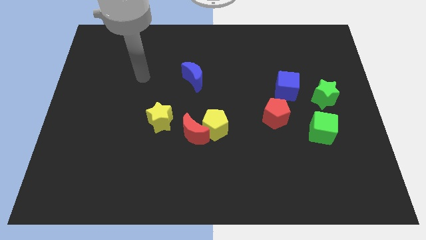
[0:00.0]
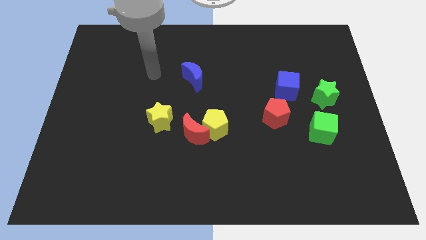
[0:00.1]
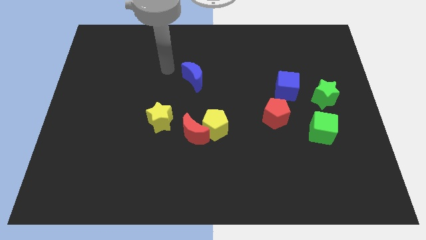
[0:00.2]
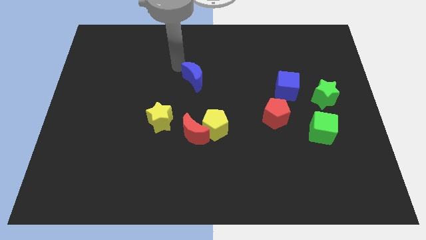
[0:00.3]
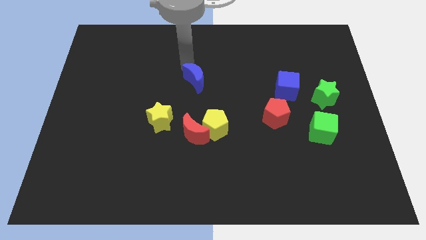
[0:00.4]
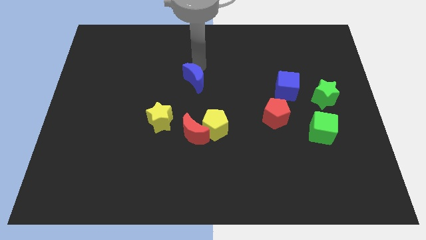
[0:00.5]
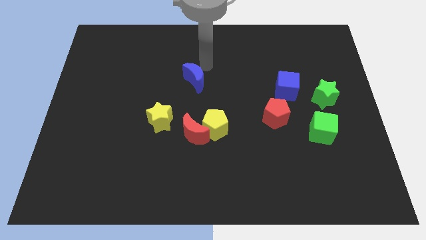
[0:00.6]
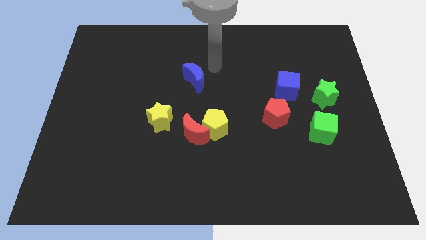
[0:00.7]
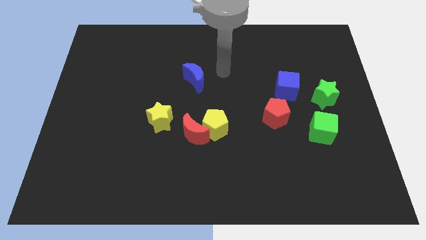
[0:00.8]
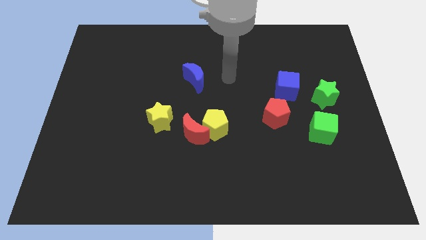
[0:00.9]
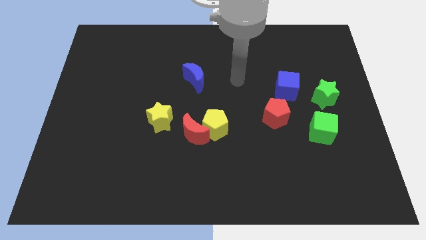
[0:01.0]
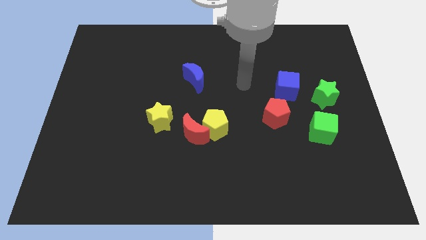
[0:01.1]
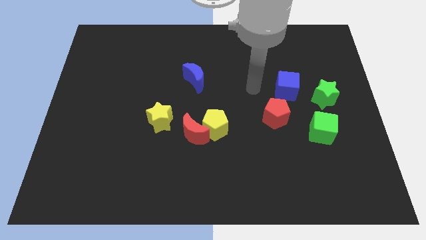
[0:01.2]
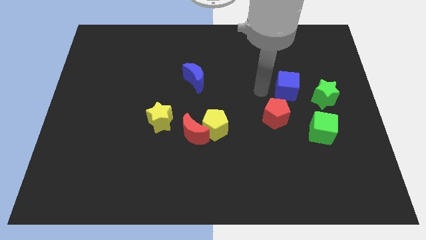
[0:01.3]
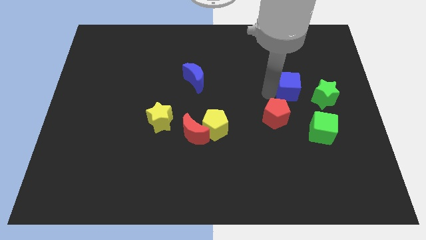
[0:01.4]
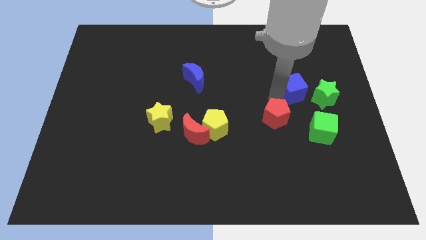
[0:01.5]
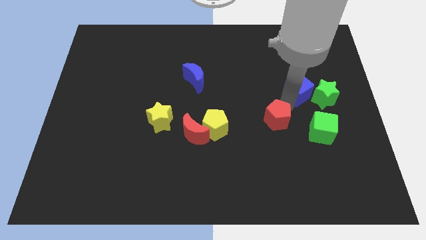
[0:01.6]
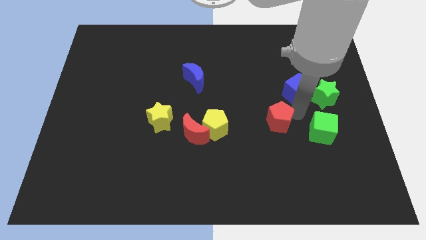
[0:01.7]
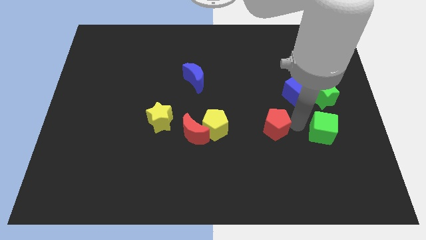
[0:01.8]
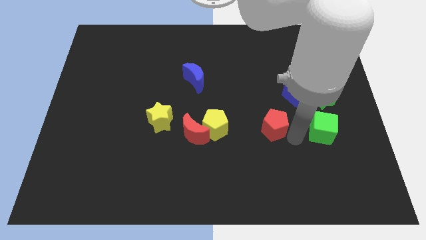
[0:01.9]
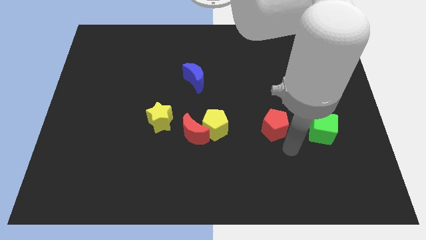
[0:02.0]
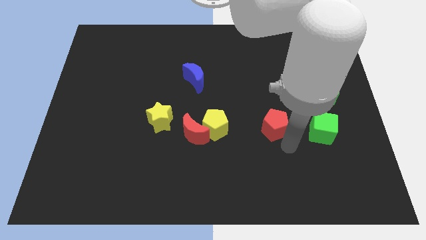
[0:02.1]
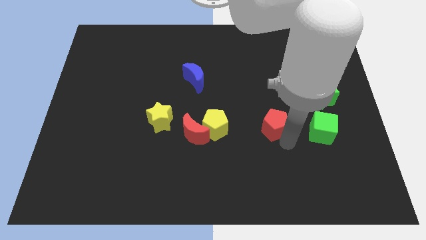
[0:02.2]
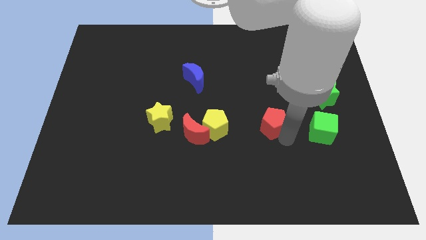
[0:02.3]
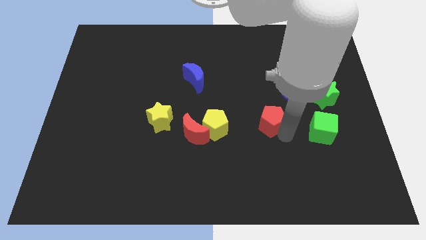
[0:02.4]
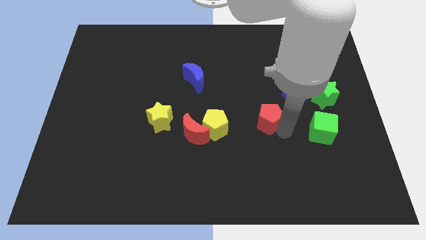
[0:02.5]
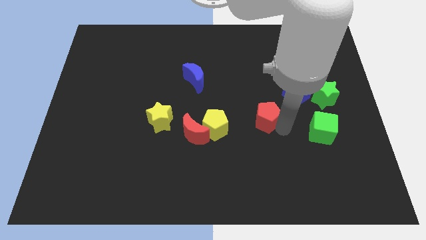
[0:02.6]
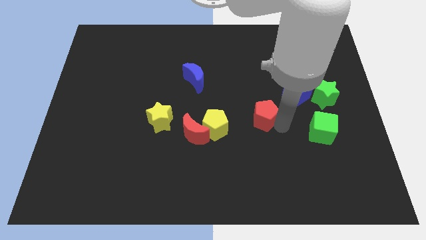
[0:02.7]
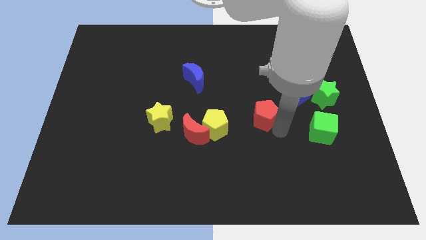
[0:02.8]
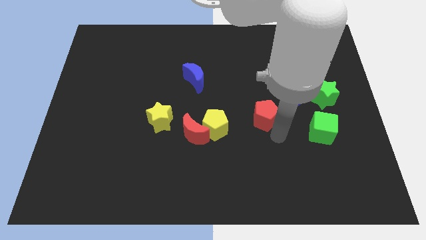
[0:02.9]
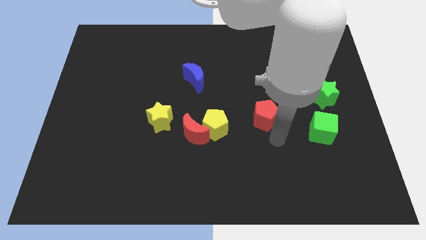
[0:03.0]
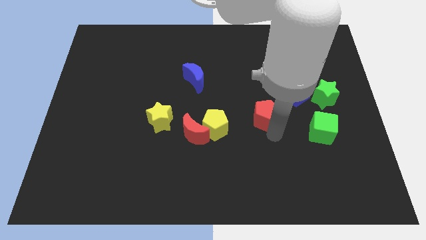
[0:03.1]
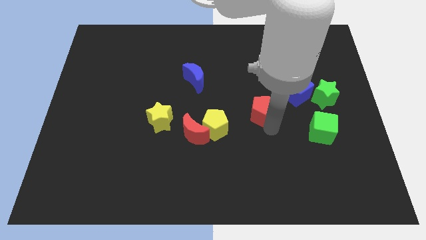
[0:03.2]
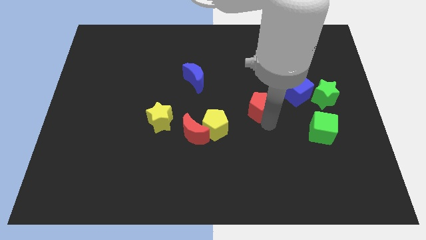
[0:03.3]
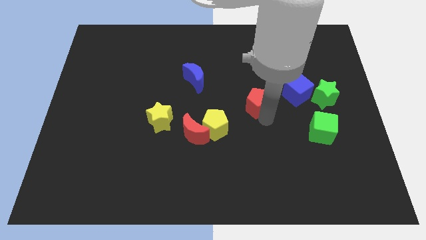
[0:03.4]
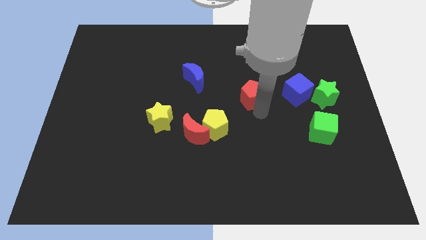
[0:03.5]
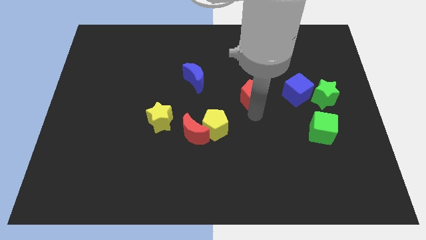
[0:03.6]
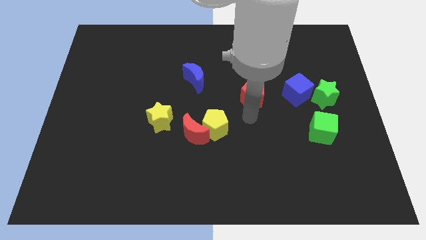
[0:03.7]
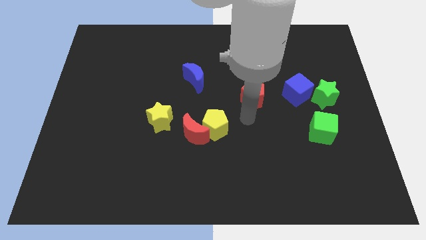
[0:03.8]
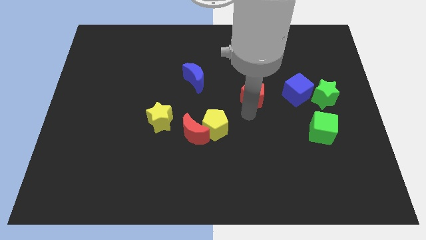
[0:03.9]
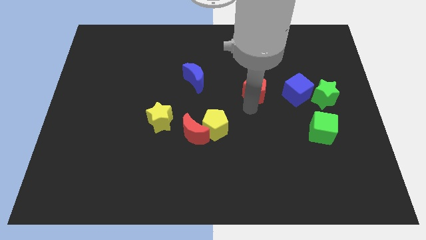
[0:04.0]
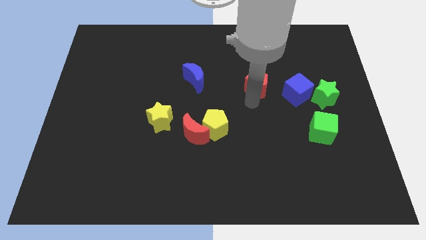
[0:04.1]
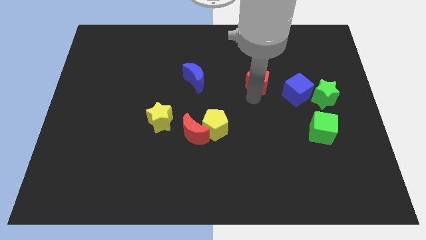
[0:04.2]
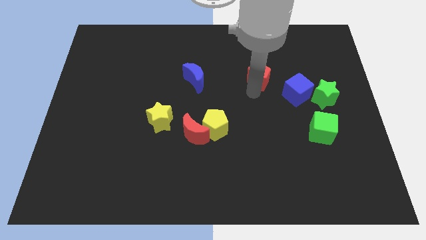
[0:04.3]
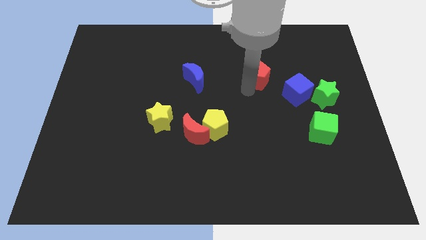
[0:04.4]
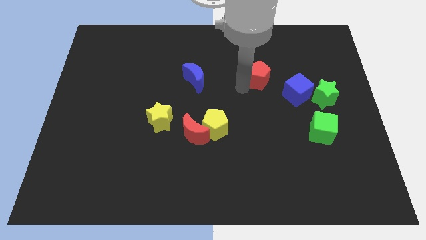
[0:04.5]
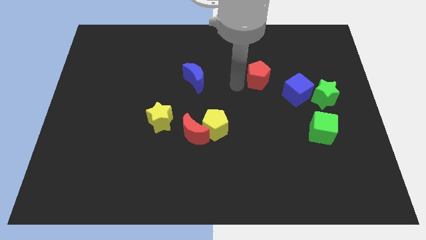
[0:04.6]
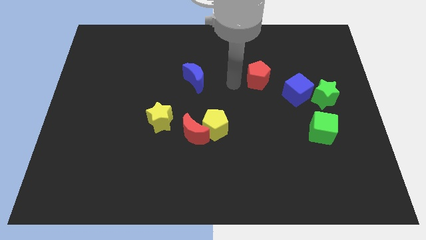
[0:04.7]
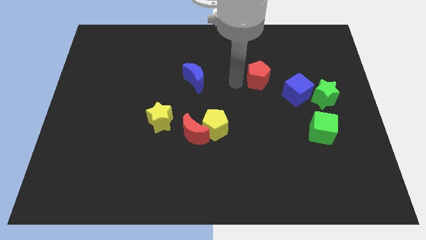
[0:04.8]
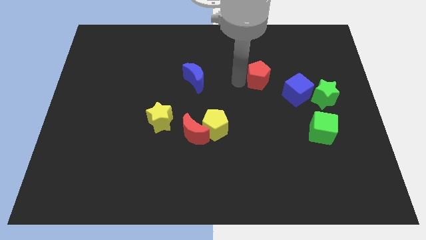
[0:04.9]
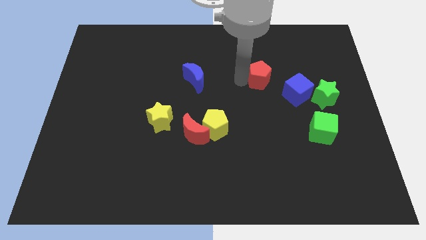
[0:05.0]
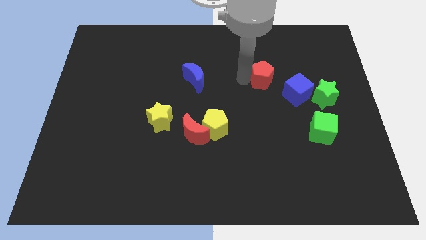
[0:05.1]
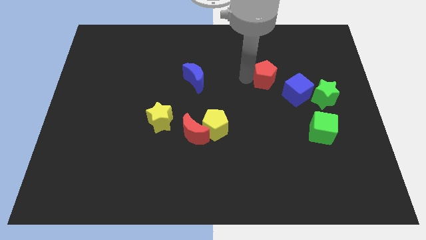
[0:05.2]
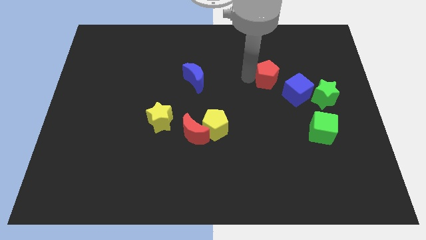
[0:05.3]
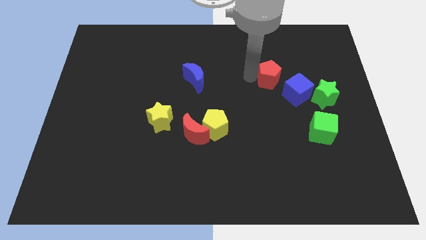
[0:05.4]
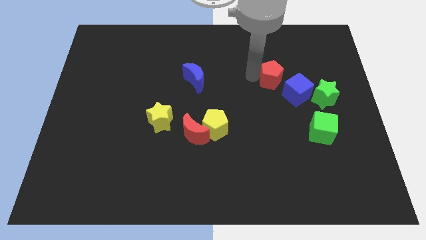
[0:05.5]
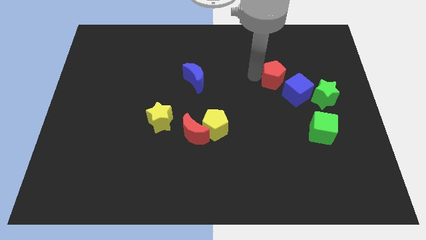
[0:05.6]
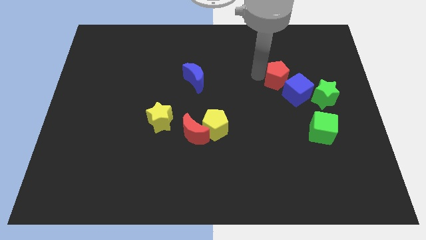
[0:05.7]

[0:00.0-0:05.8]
slightly slide the red pentagon up and to the right

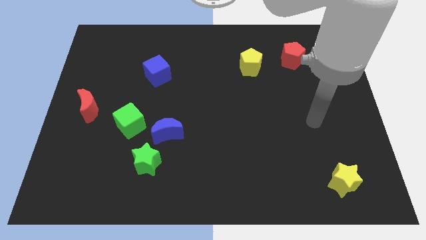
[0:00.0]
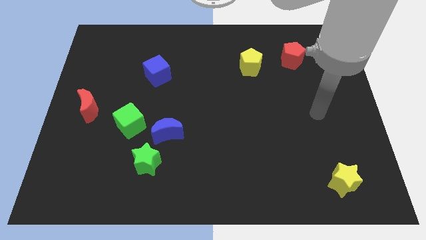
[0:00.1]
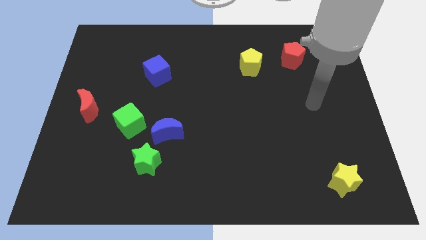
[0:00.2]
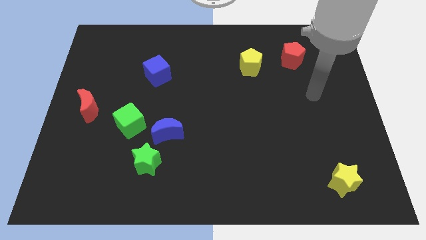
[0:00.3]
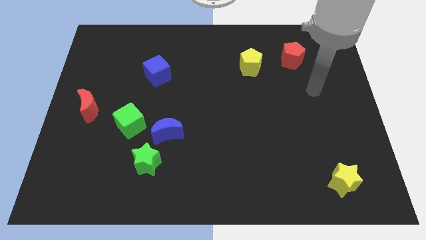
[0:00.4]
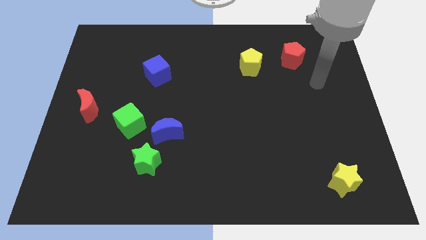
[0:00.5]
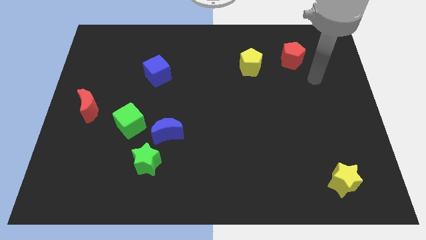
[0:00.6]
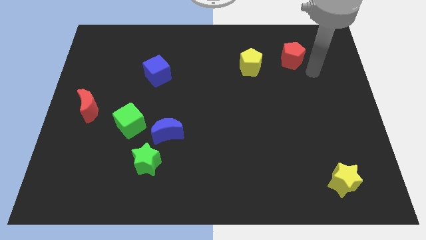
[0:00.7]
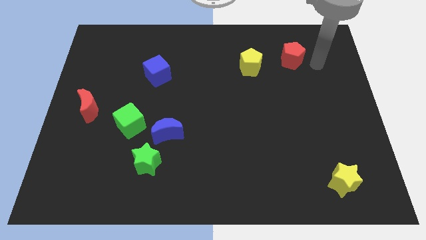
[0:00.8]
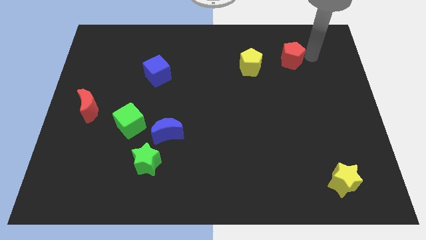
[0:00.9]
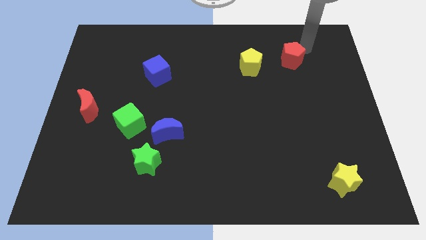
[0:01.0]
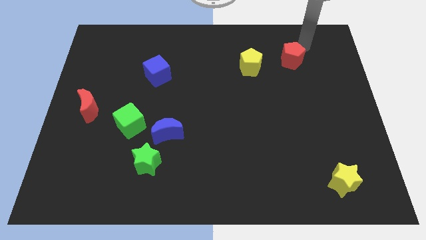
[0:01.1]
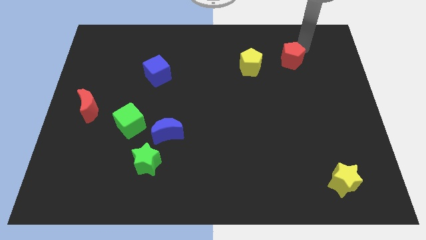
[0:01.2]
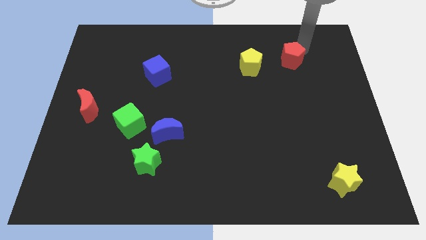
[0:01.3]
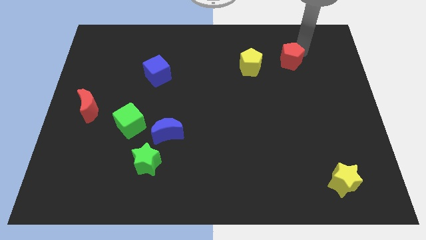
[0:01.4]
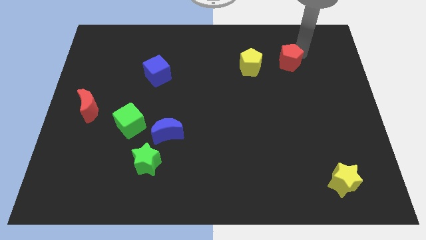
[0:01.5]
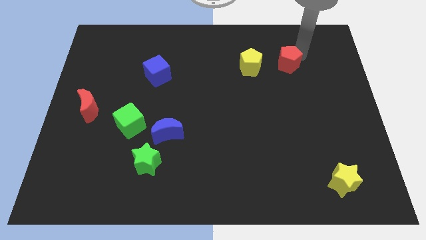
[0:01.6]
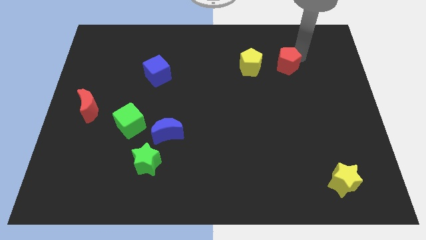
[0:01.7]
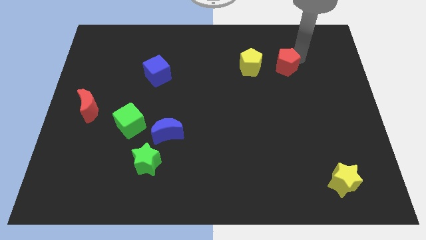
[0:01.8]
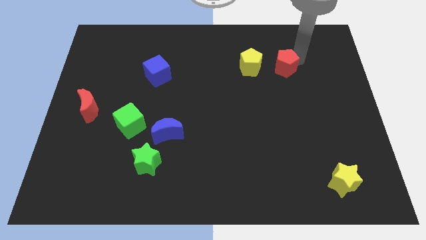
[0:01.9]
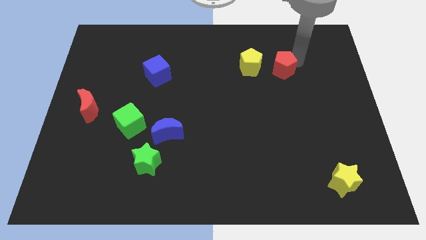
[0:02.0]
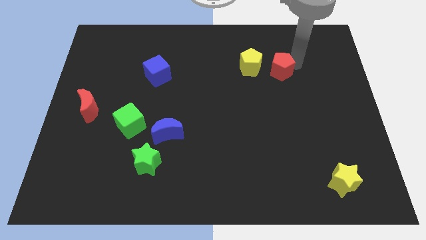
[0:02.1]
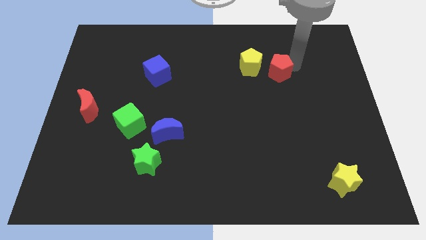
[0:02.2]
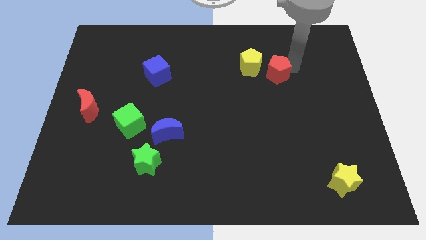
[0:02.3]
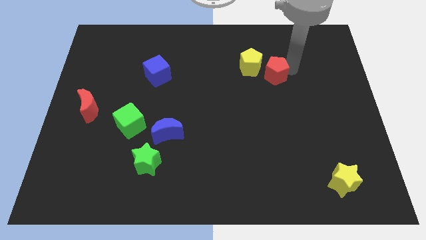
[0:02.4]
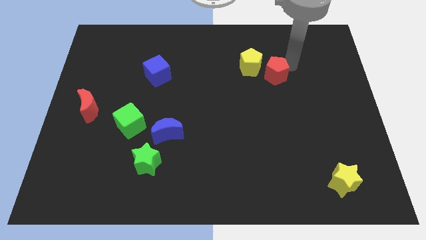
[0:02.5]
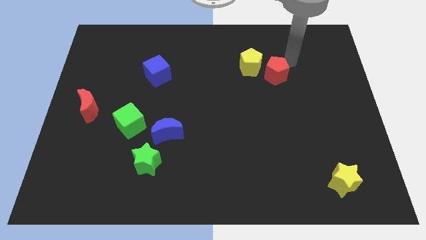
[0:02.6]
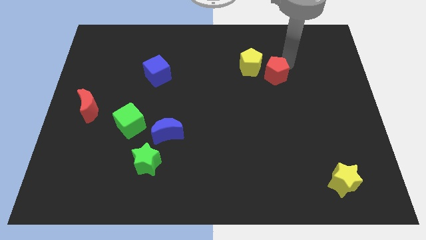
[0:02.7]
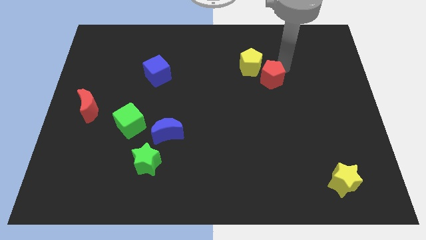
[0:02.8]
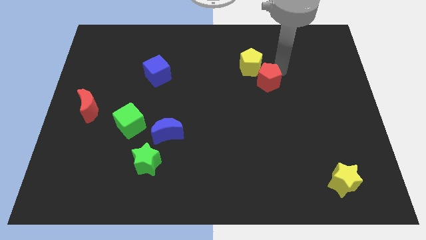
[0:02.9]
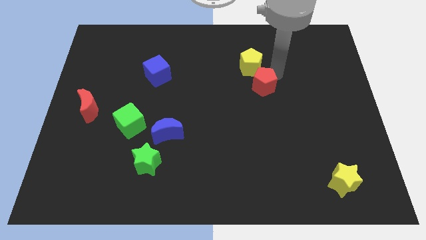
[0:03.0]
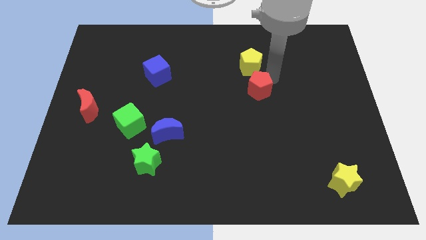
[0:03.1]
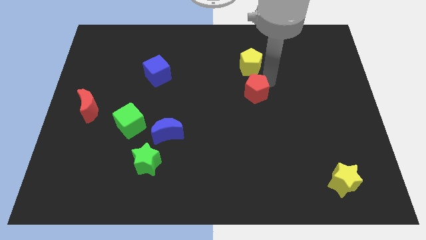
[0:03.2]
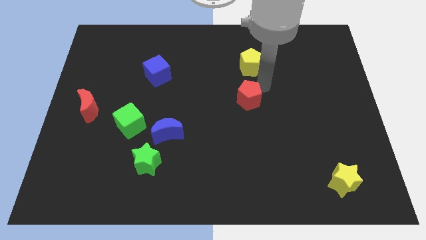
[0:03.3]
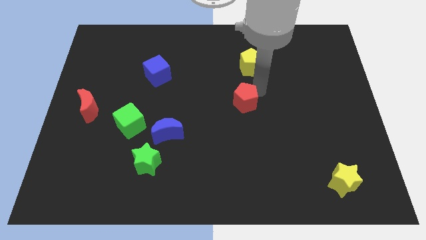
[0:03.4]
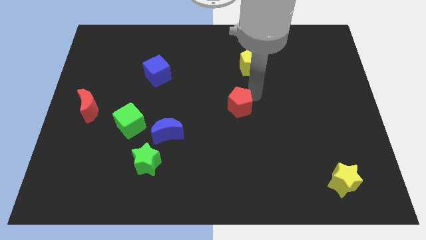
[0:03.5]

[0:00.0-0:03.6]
move the red pentagon downwards and then to the left
